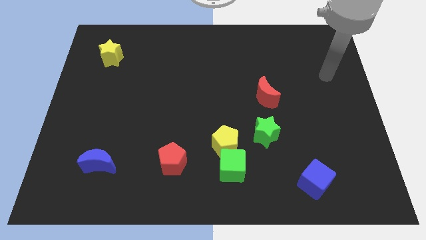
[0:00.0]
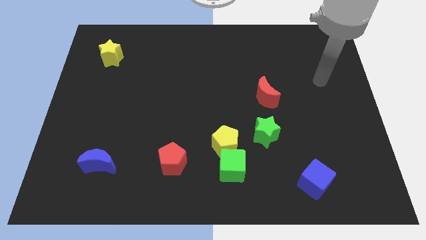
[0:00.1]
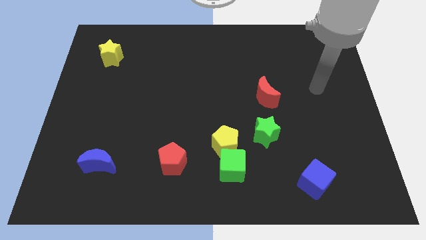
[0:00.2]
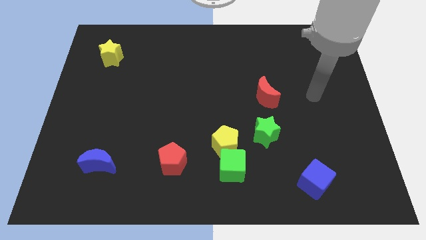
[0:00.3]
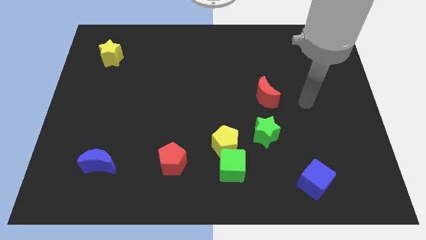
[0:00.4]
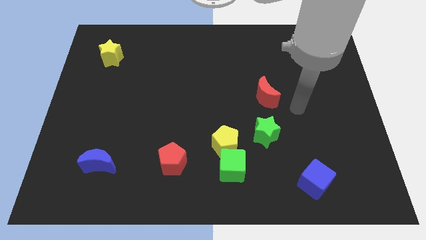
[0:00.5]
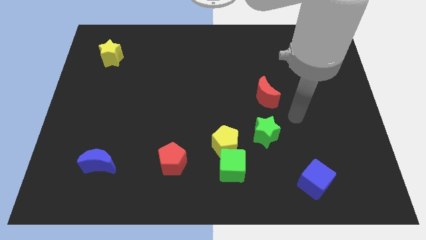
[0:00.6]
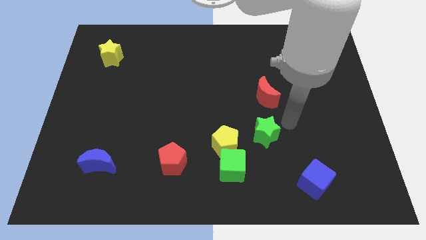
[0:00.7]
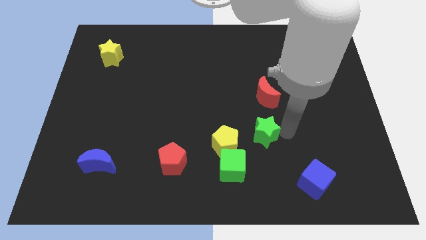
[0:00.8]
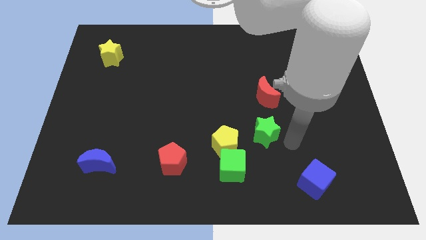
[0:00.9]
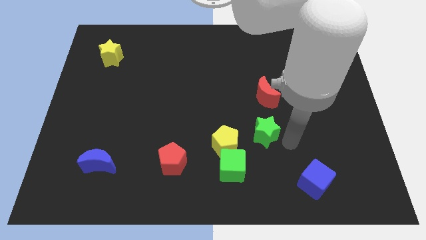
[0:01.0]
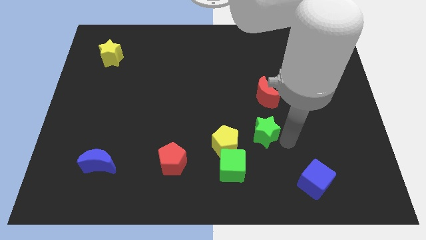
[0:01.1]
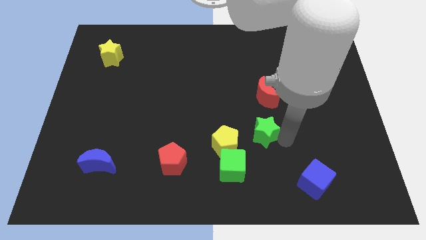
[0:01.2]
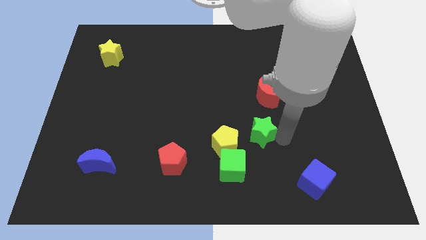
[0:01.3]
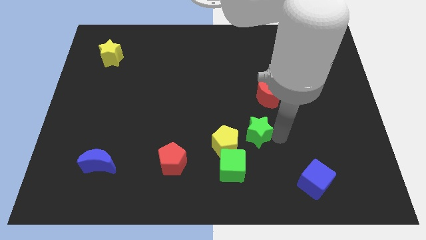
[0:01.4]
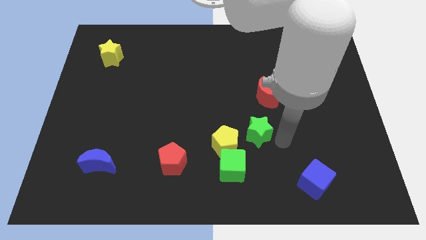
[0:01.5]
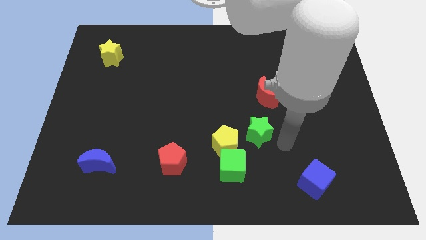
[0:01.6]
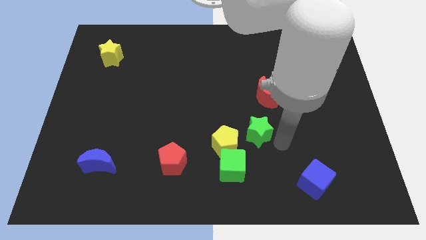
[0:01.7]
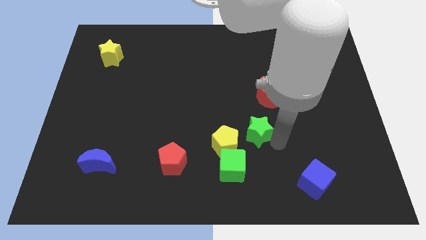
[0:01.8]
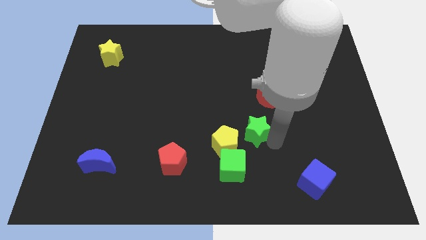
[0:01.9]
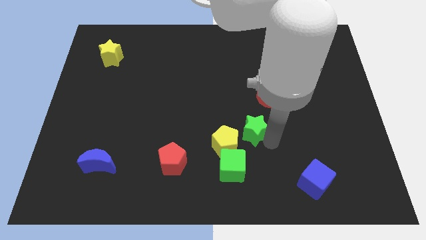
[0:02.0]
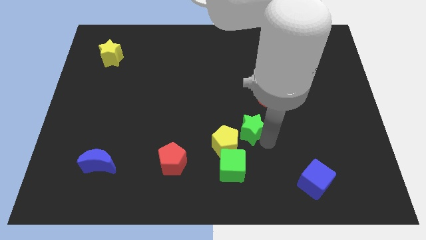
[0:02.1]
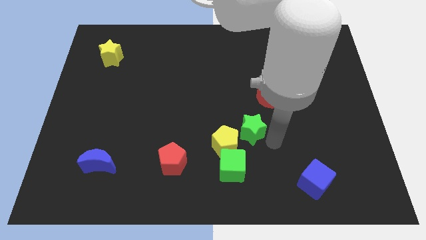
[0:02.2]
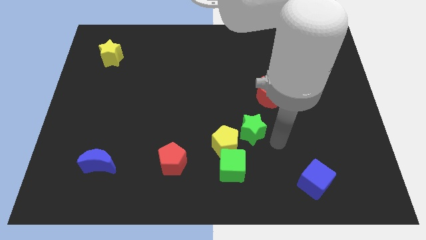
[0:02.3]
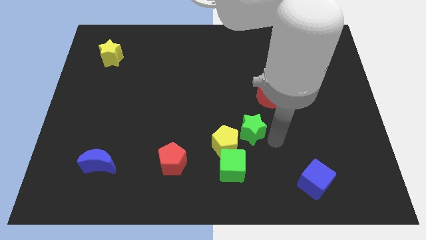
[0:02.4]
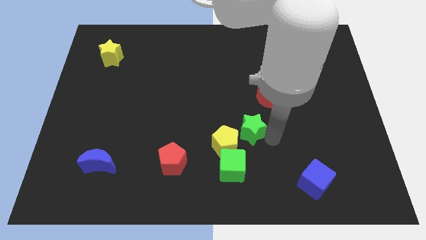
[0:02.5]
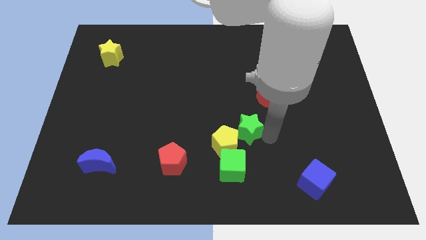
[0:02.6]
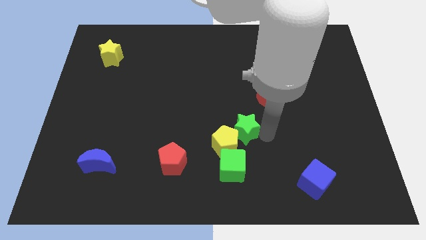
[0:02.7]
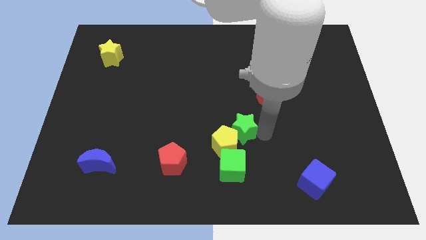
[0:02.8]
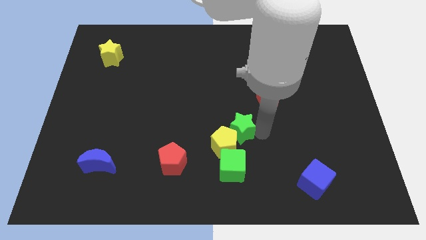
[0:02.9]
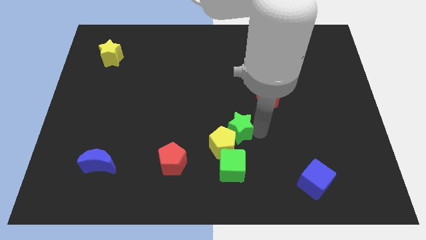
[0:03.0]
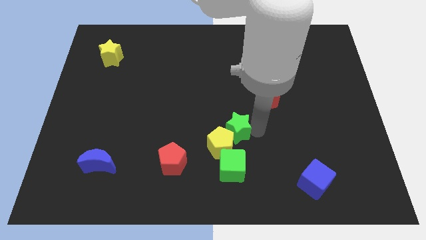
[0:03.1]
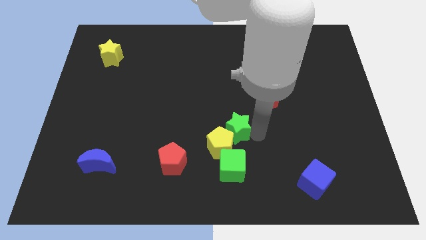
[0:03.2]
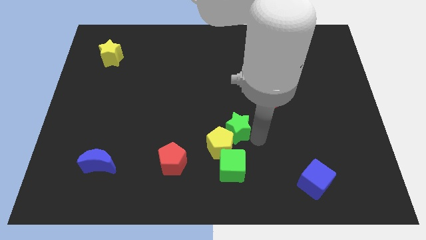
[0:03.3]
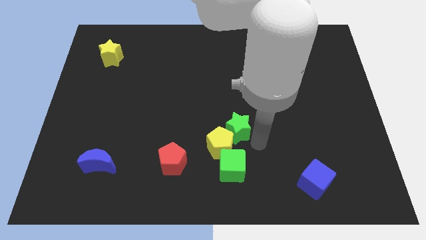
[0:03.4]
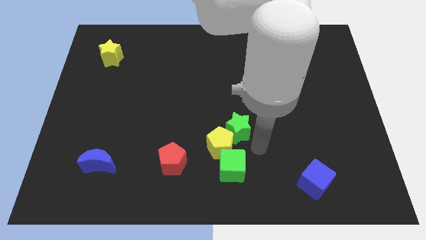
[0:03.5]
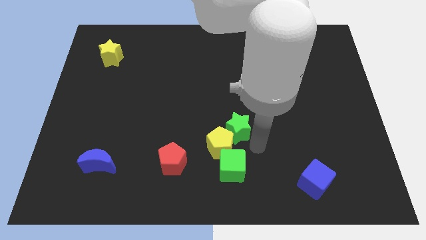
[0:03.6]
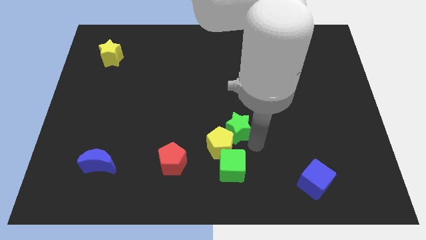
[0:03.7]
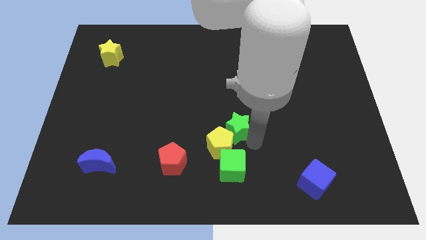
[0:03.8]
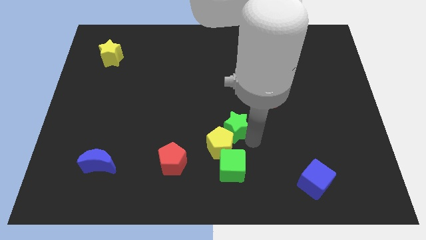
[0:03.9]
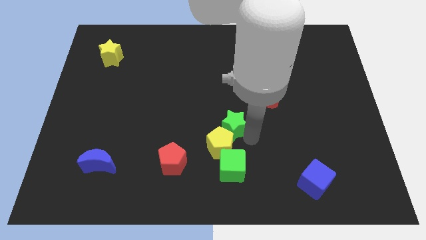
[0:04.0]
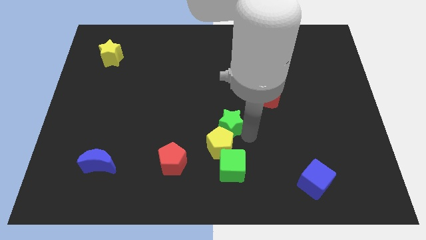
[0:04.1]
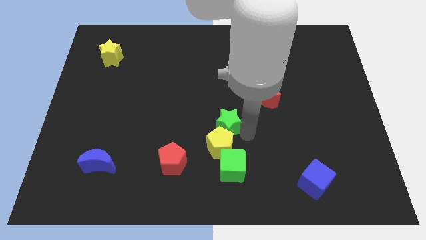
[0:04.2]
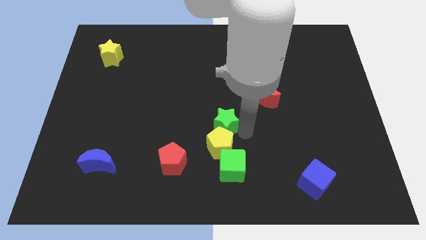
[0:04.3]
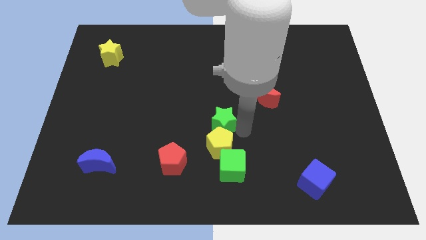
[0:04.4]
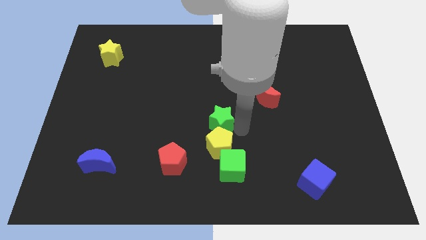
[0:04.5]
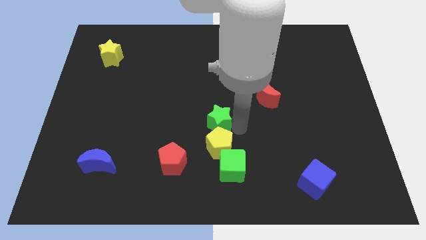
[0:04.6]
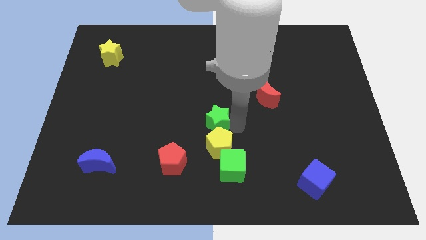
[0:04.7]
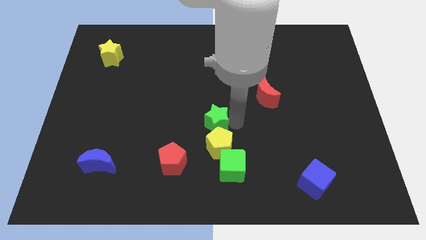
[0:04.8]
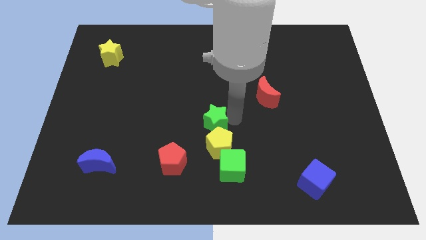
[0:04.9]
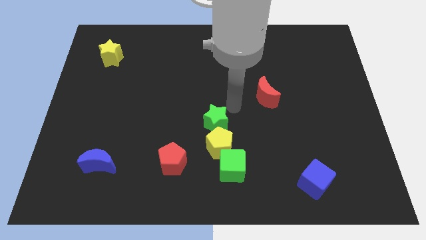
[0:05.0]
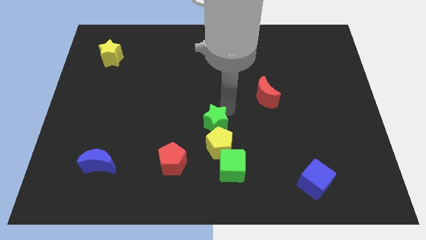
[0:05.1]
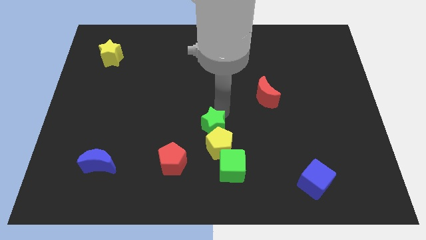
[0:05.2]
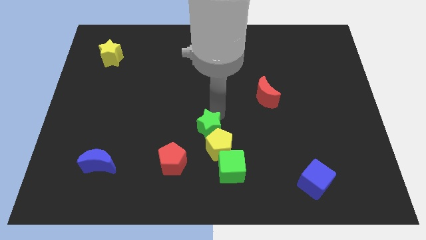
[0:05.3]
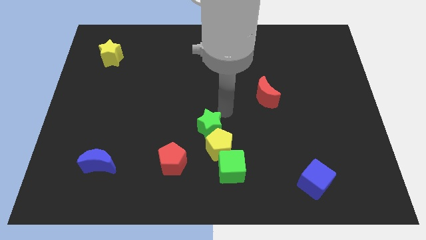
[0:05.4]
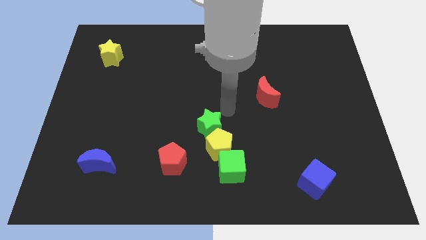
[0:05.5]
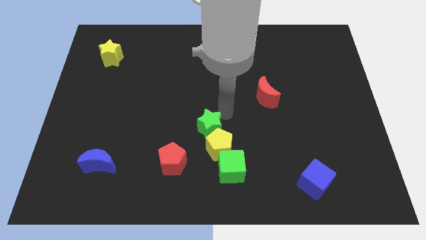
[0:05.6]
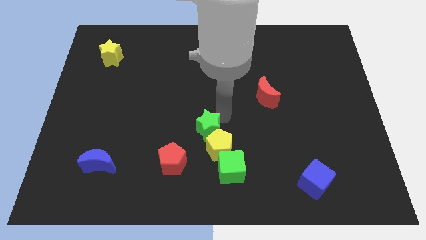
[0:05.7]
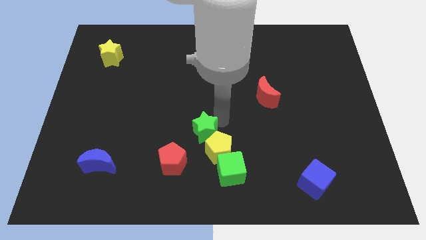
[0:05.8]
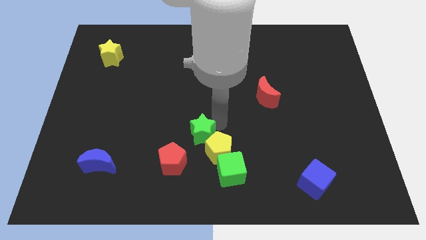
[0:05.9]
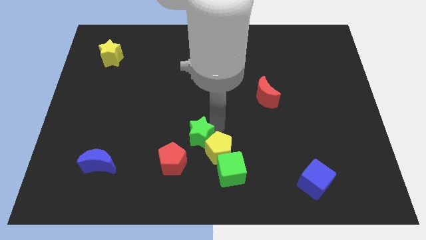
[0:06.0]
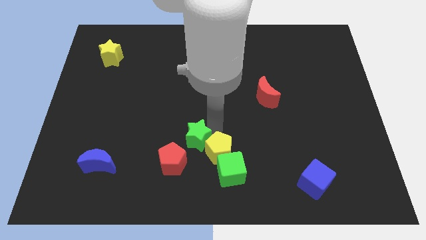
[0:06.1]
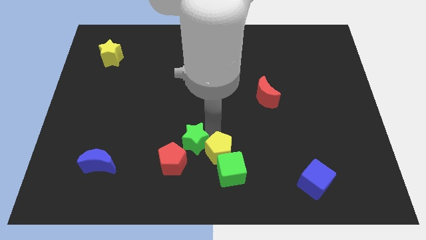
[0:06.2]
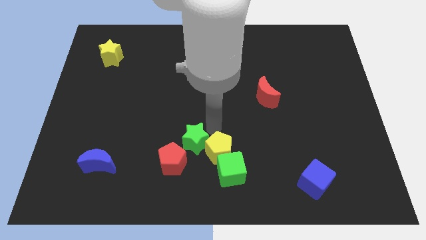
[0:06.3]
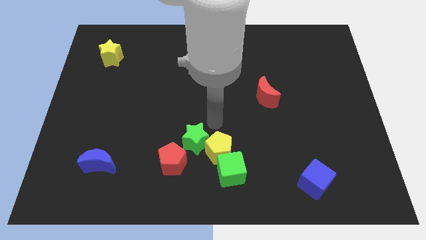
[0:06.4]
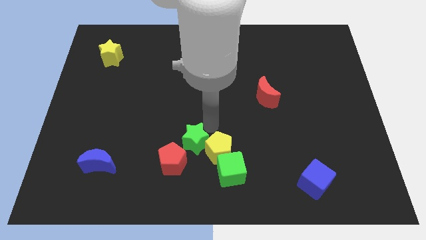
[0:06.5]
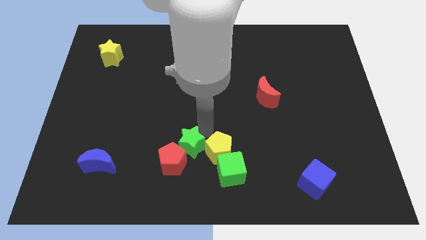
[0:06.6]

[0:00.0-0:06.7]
put the green star next to the red pentagon

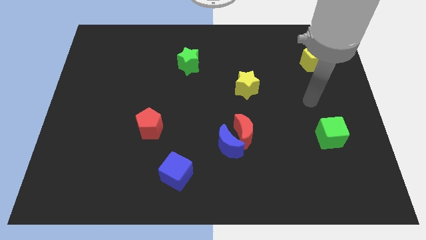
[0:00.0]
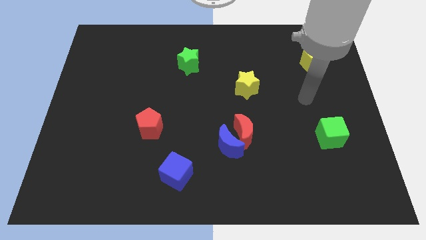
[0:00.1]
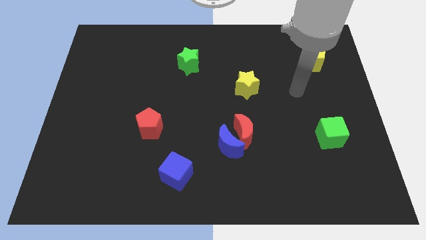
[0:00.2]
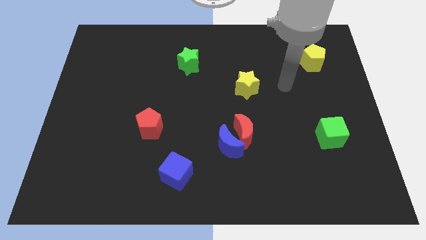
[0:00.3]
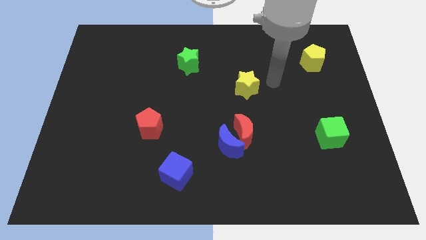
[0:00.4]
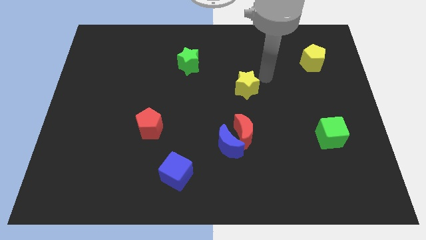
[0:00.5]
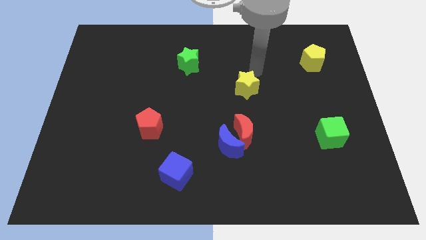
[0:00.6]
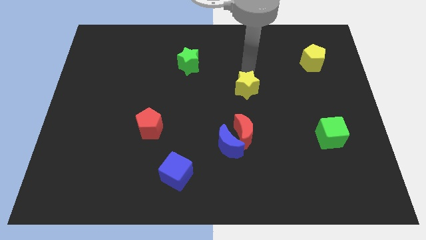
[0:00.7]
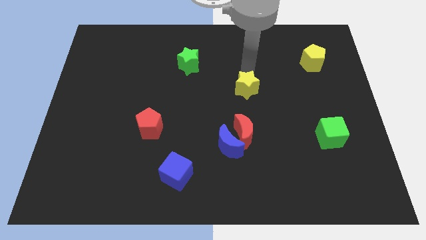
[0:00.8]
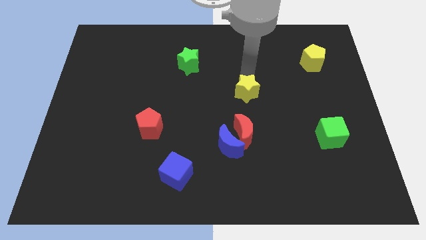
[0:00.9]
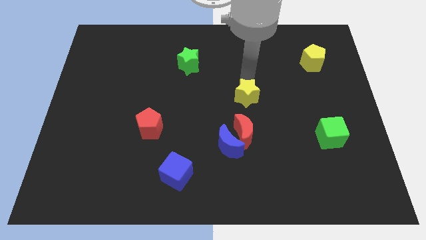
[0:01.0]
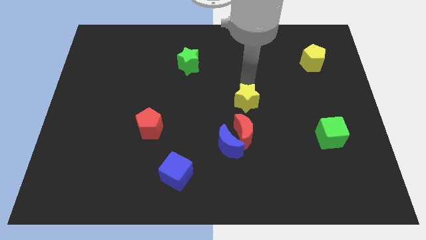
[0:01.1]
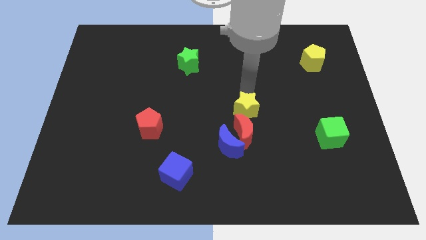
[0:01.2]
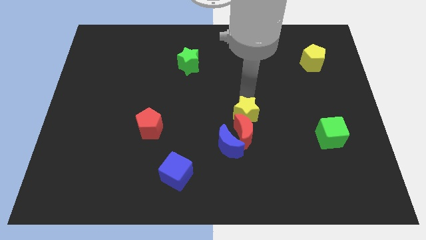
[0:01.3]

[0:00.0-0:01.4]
move the yellow star close to the red moon

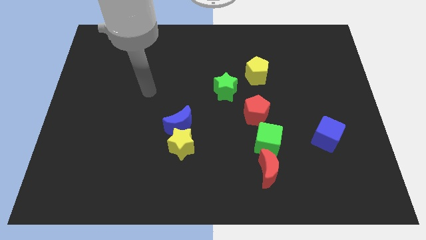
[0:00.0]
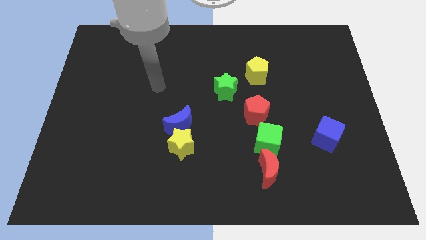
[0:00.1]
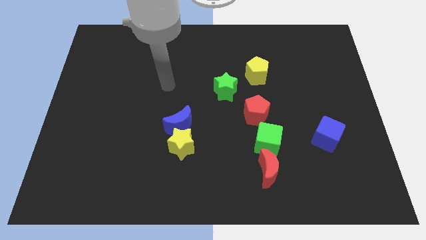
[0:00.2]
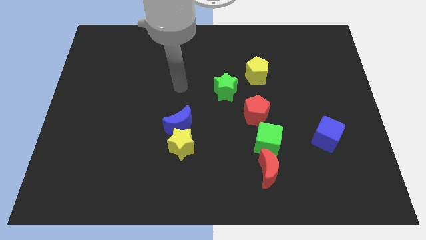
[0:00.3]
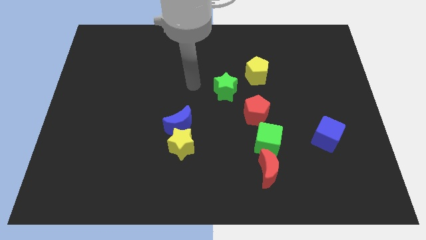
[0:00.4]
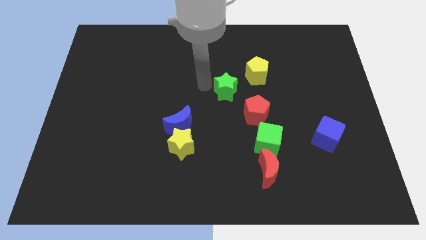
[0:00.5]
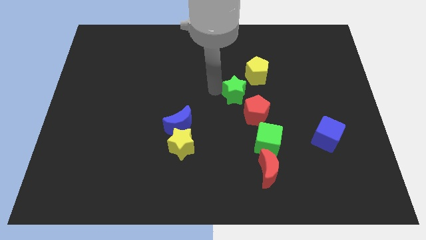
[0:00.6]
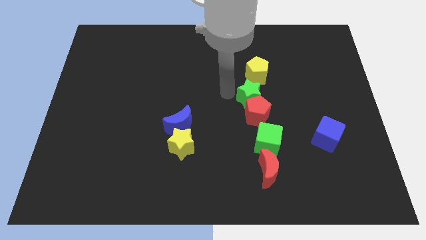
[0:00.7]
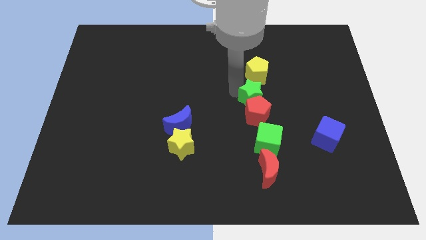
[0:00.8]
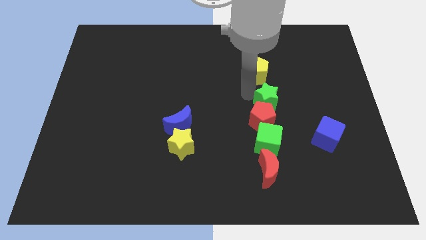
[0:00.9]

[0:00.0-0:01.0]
slide the red pentagon next to the green cube
